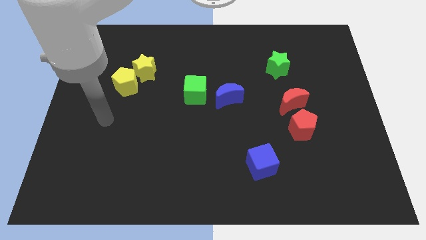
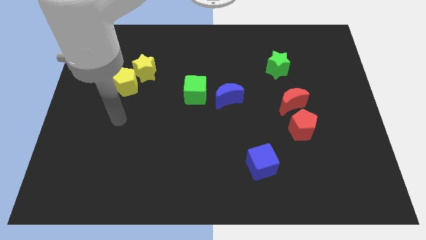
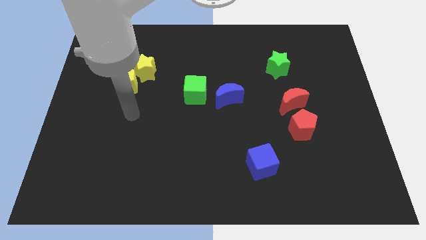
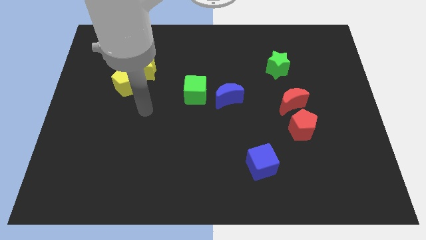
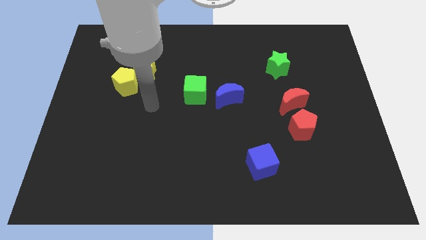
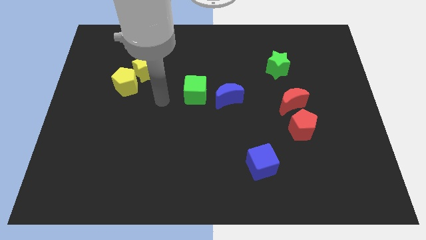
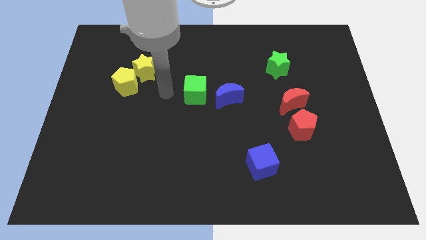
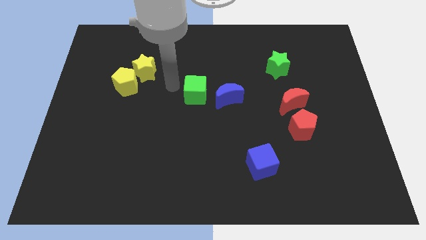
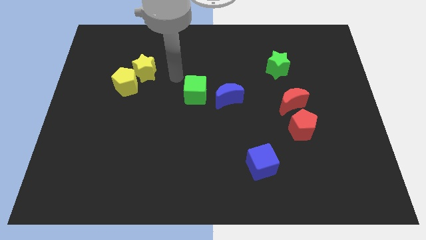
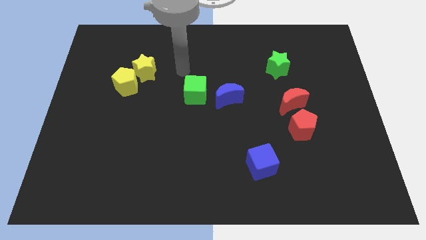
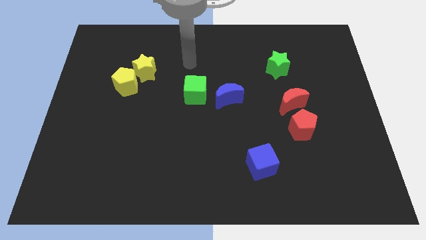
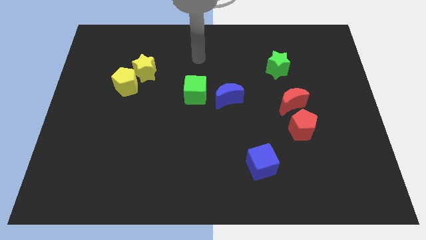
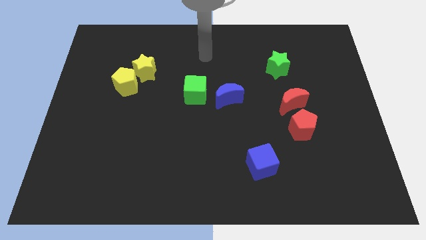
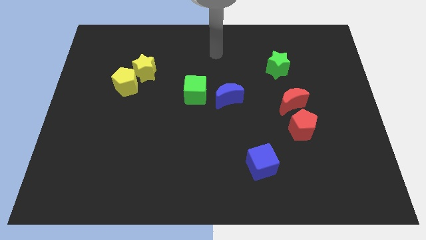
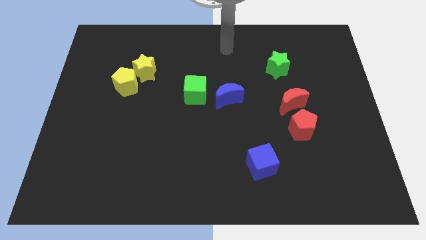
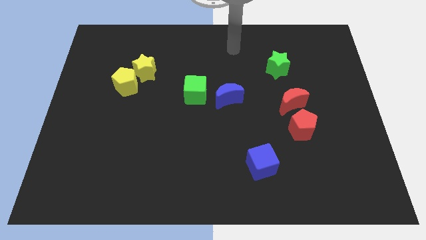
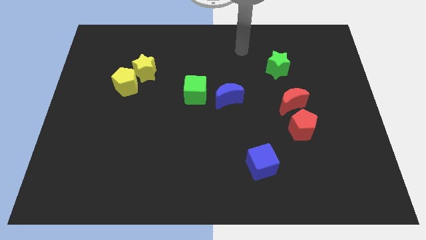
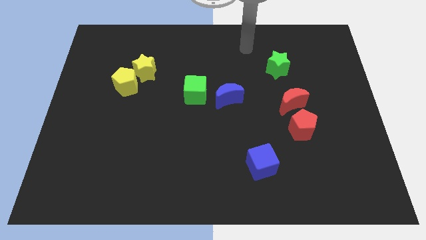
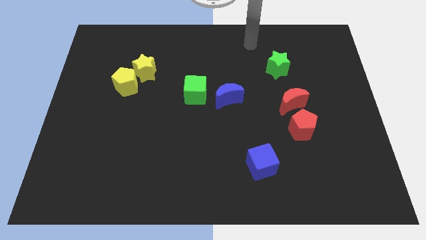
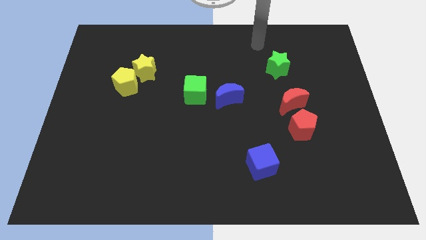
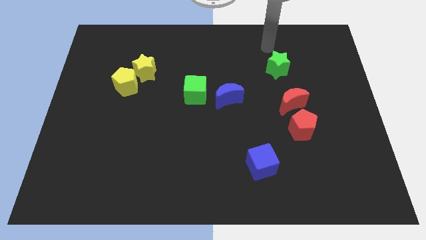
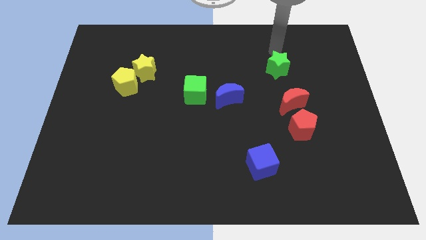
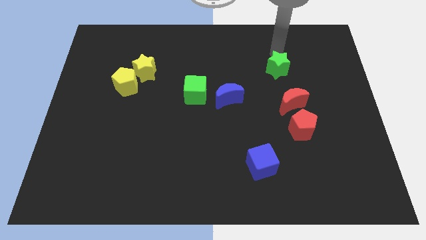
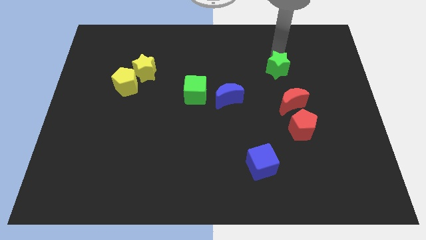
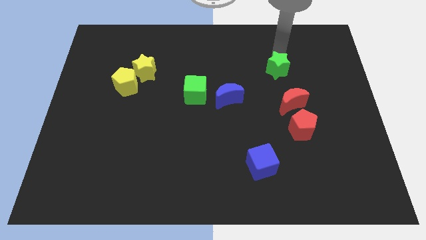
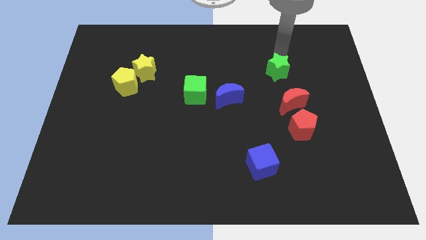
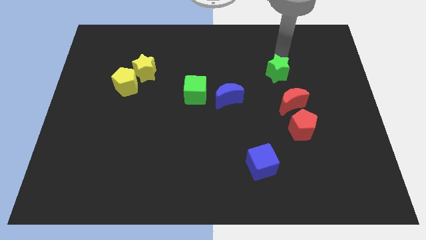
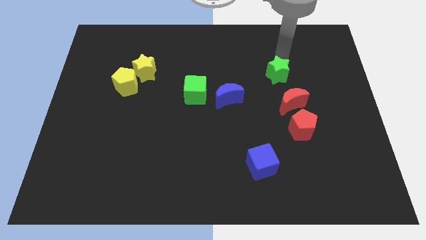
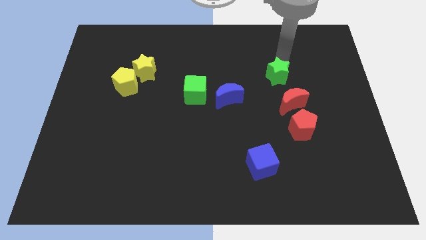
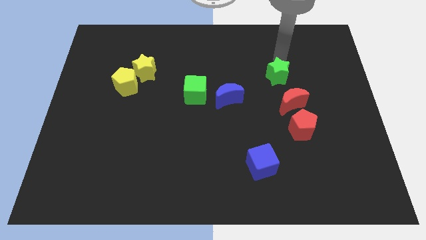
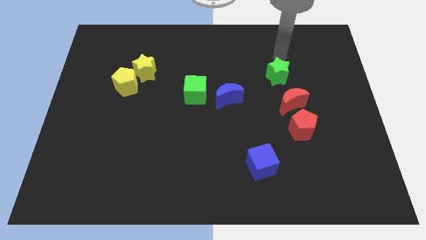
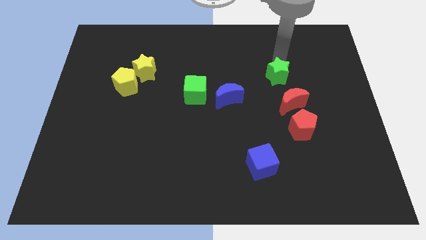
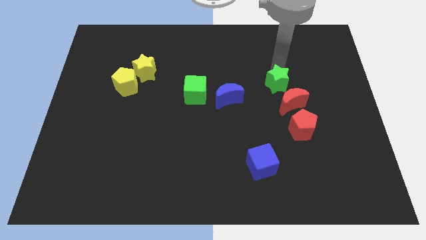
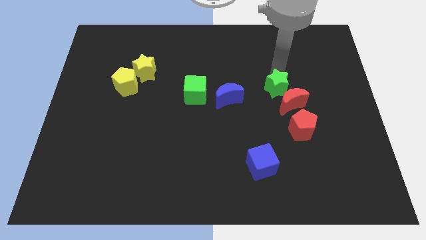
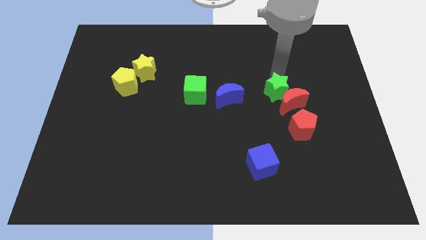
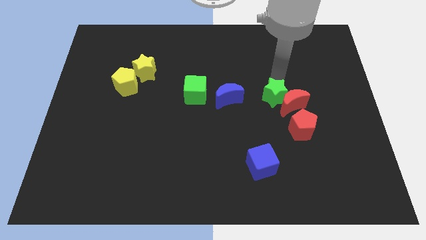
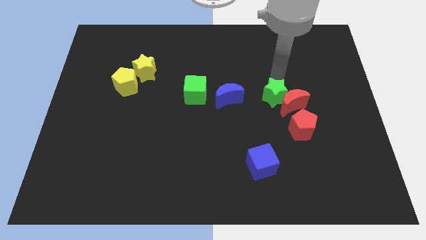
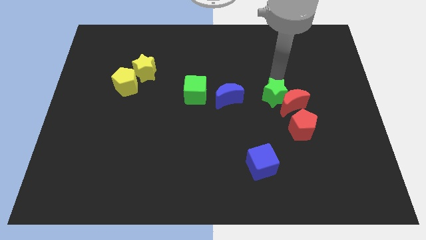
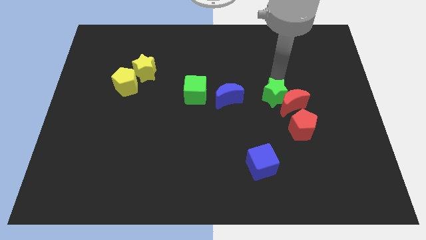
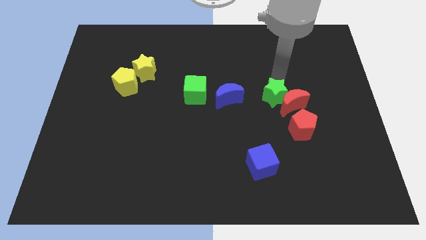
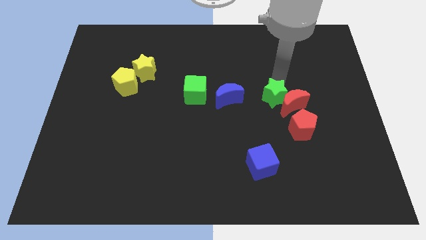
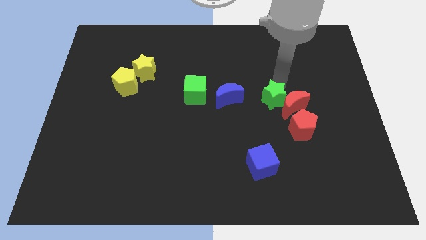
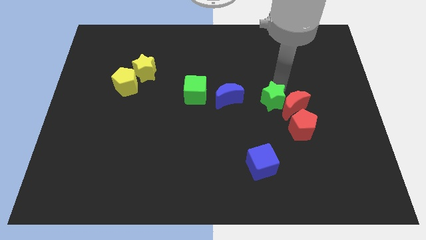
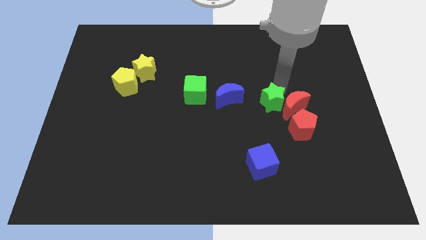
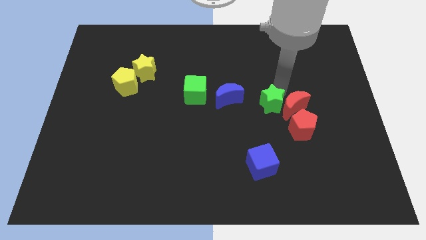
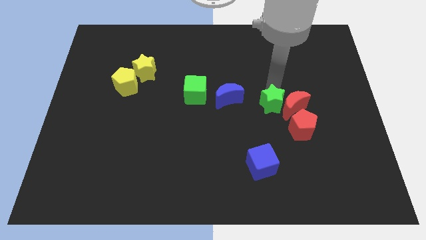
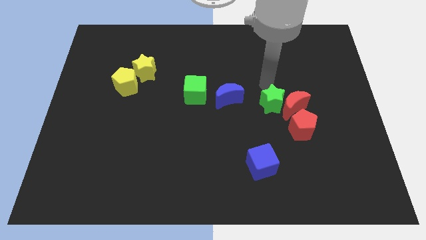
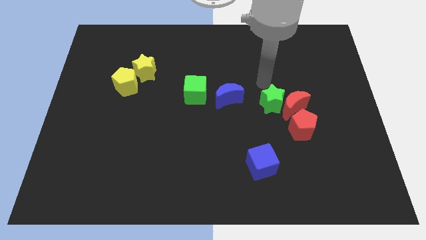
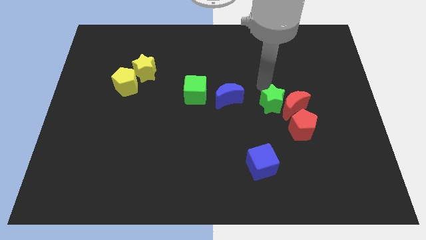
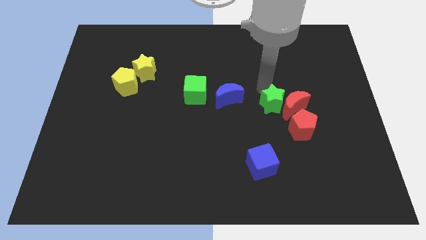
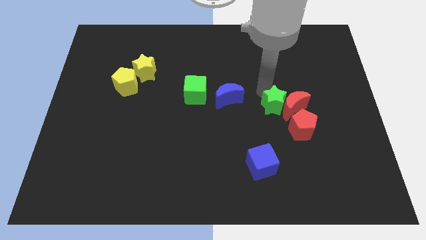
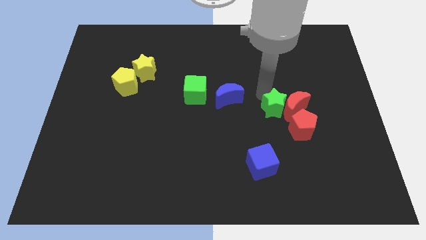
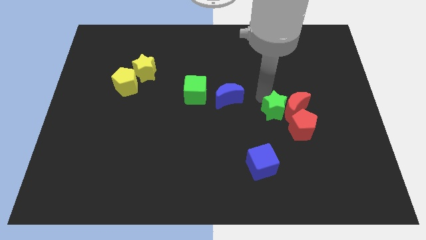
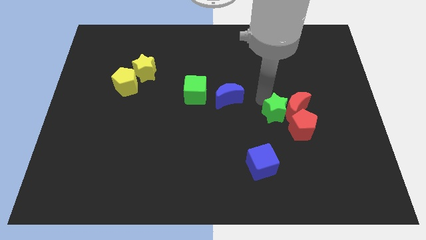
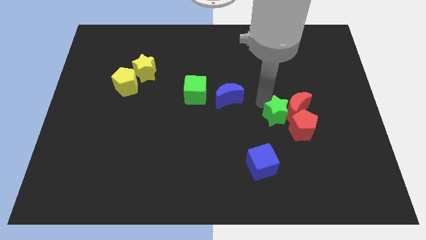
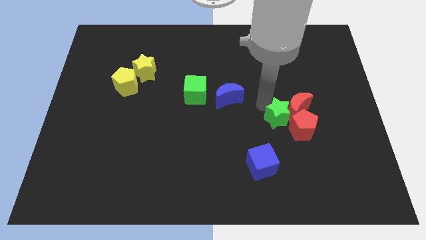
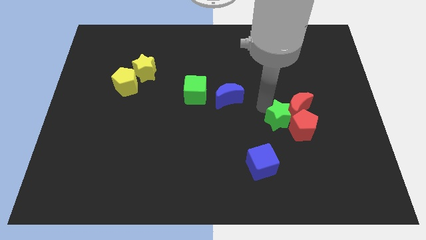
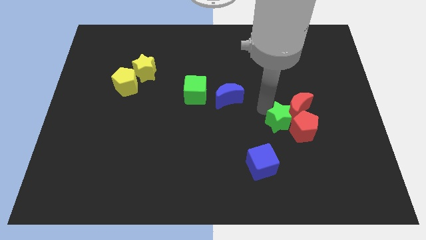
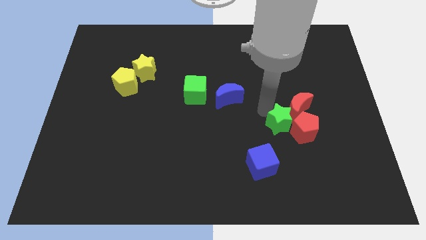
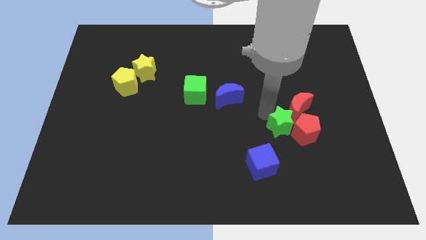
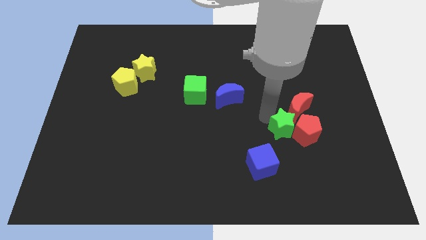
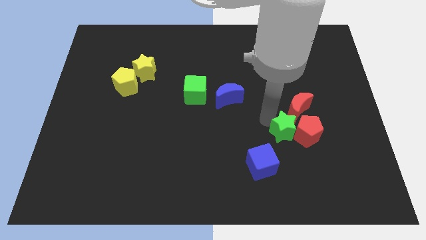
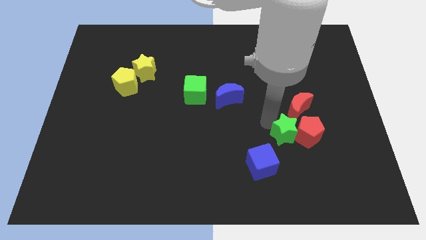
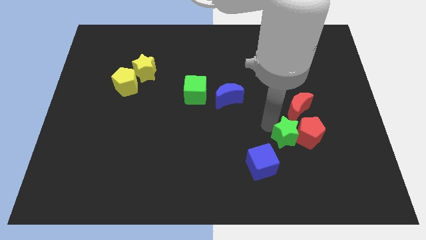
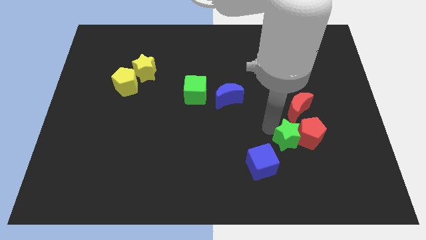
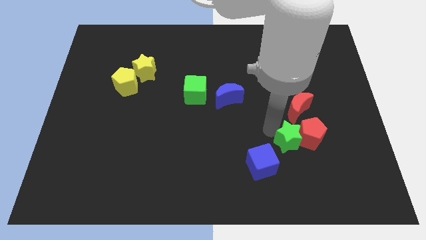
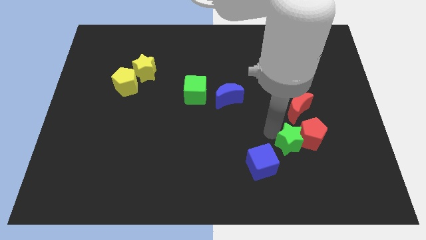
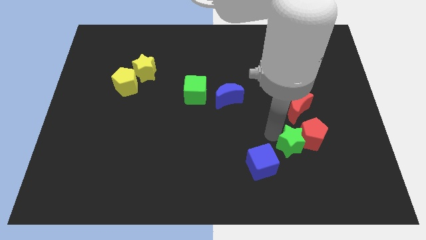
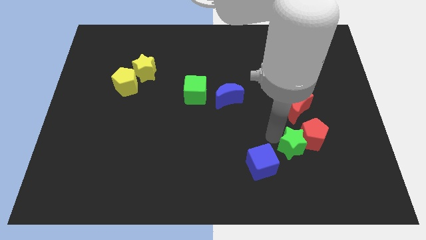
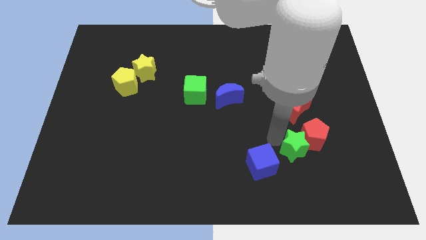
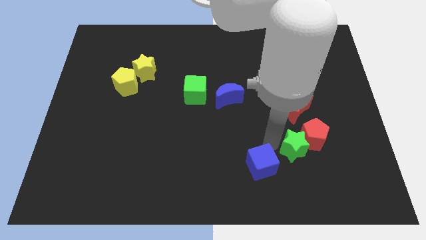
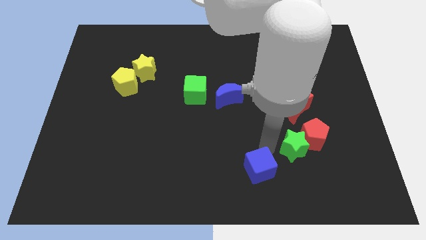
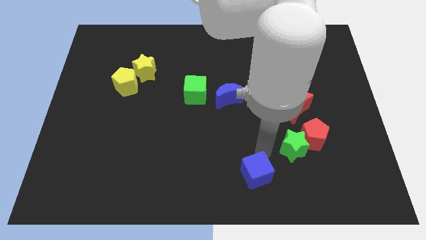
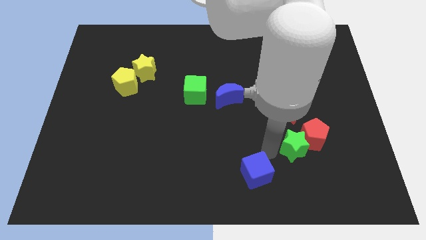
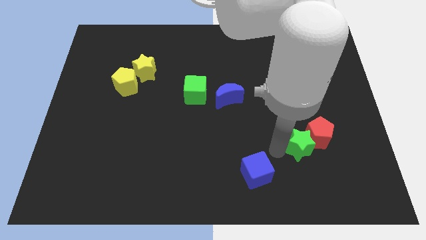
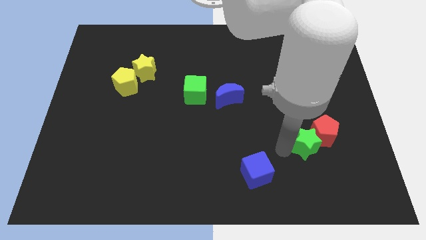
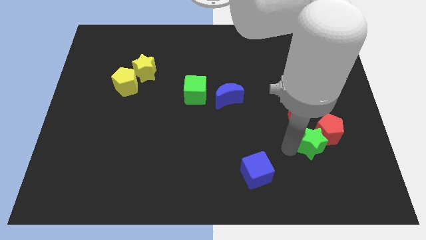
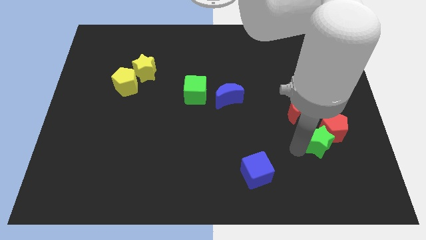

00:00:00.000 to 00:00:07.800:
slide the green star to the bottom right of the red moon
